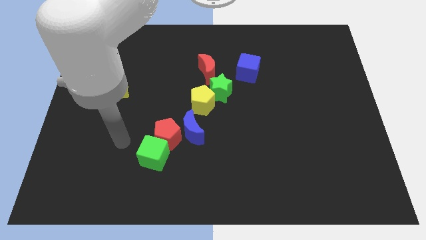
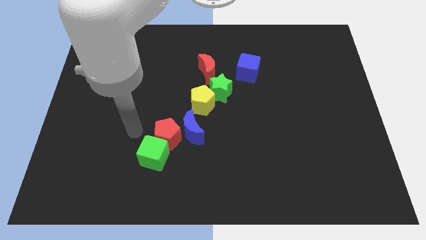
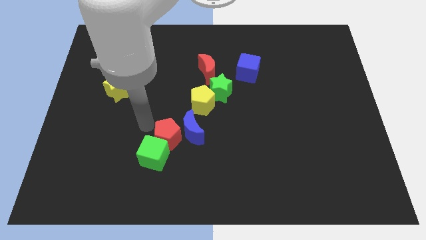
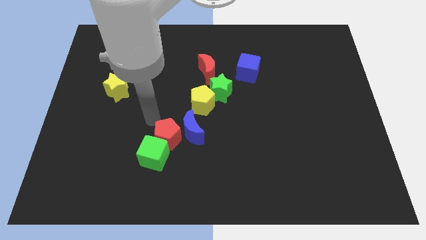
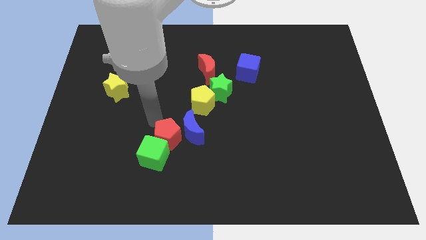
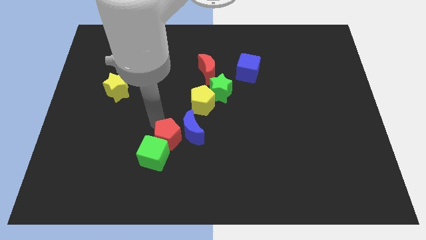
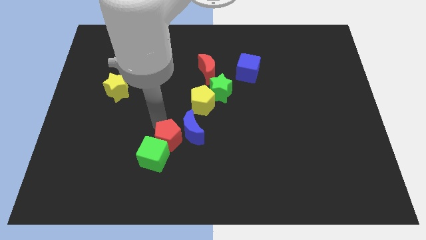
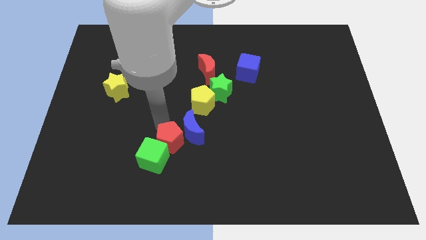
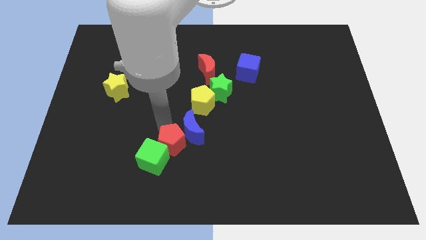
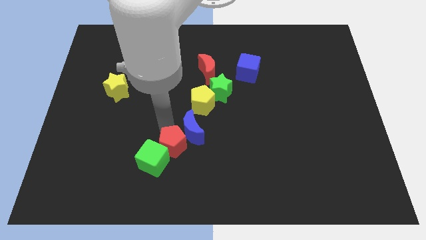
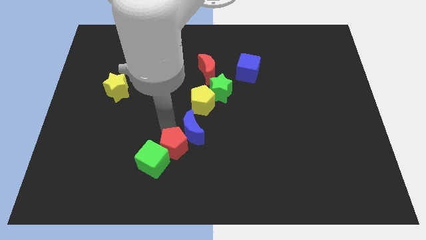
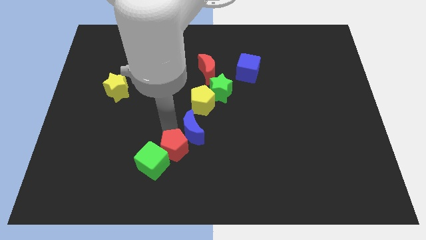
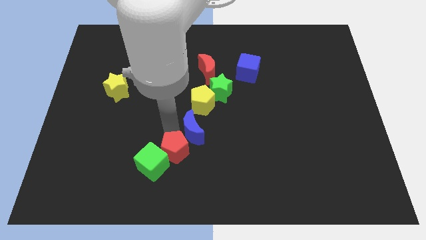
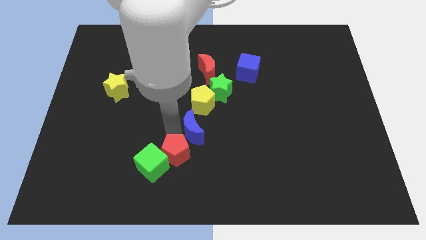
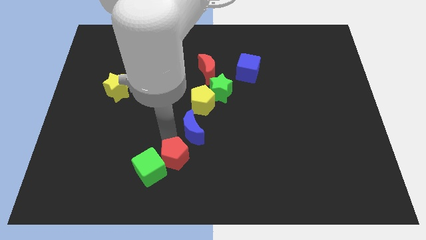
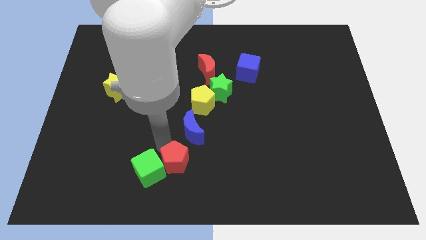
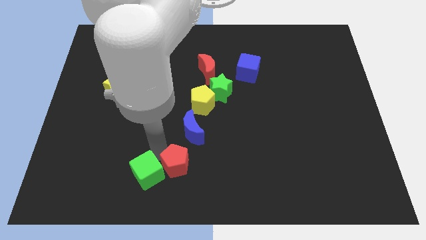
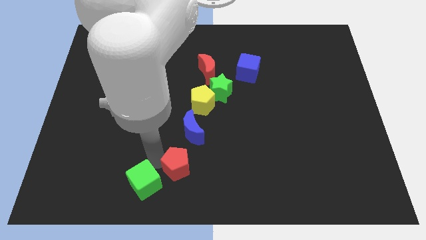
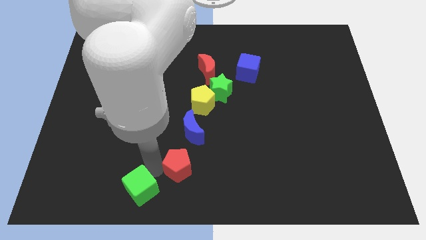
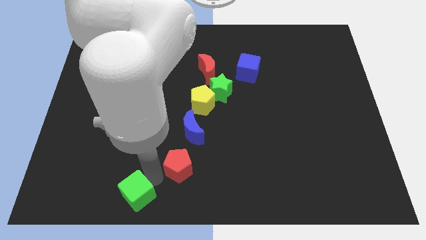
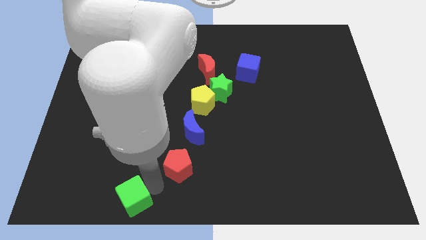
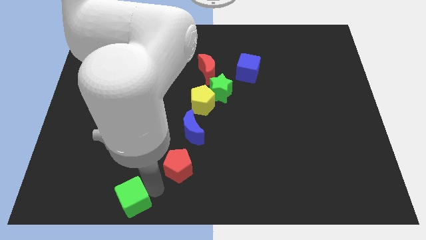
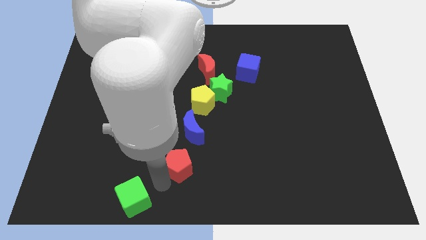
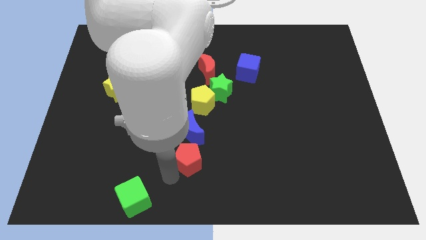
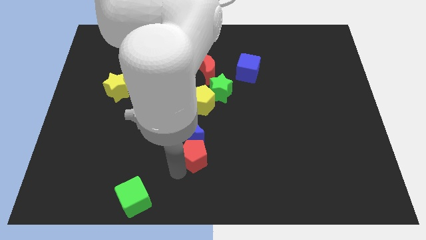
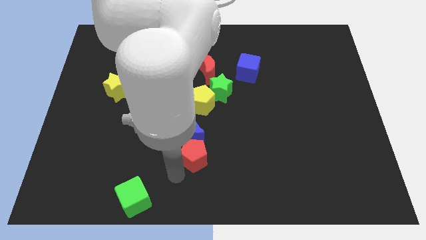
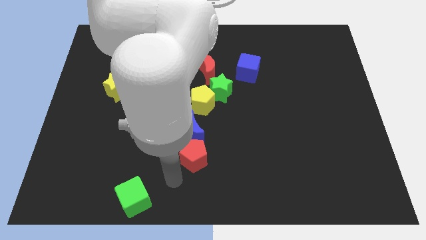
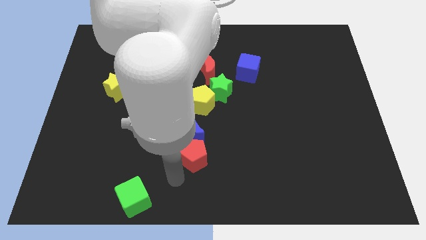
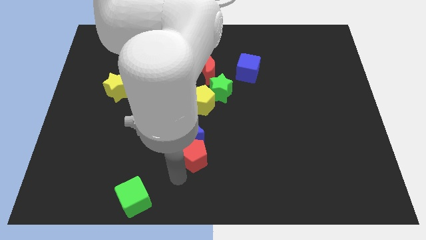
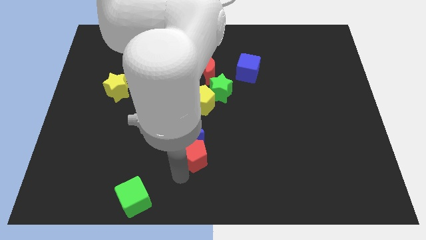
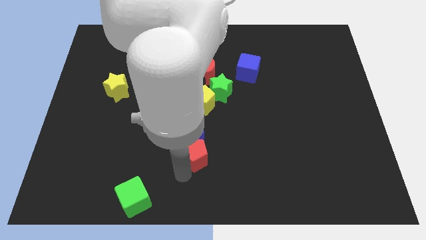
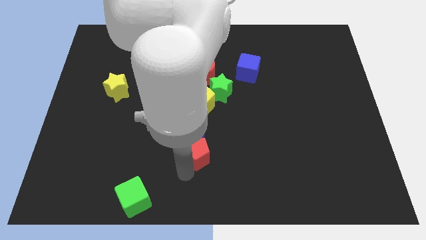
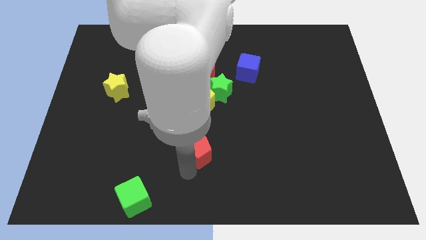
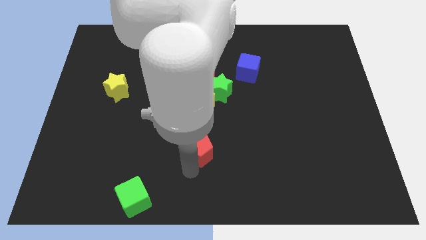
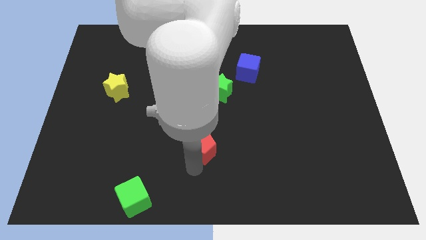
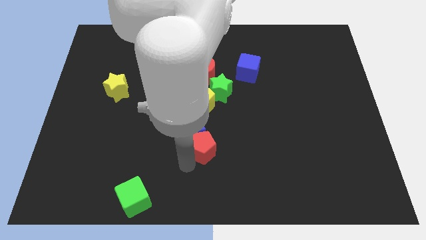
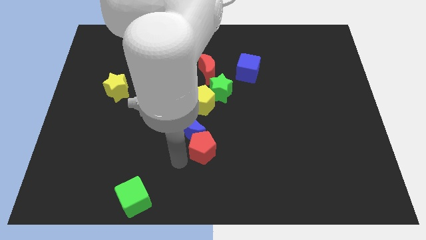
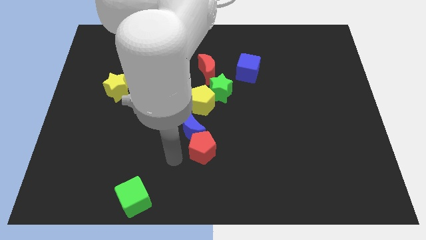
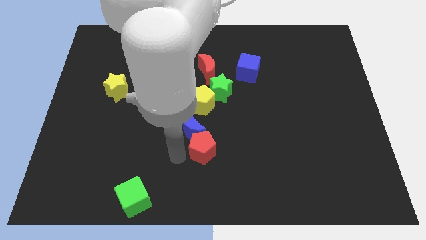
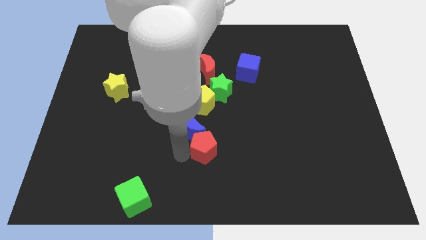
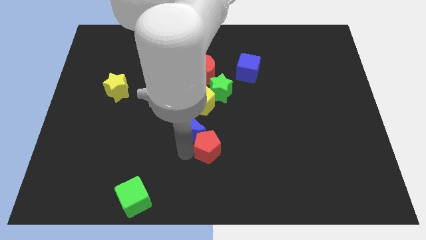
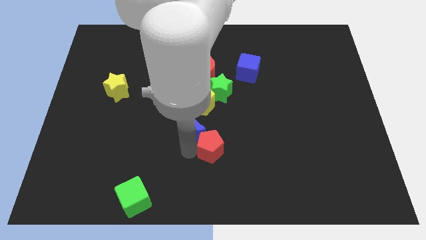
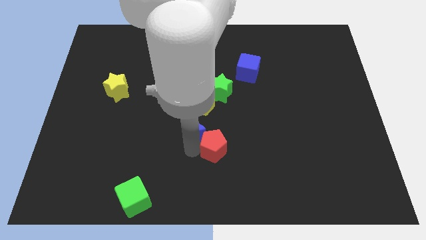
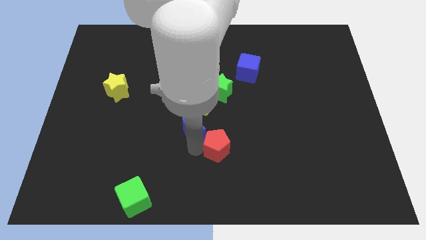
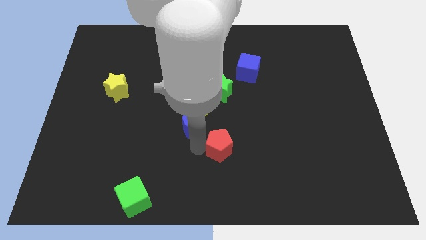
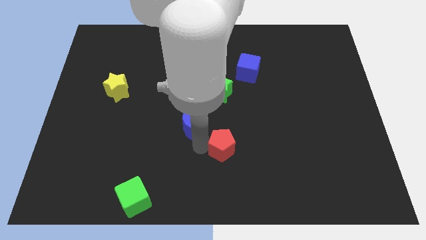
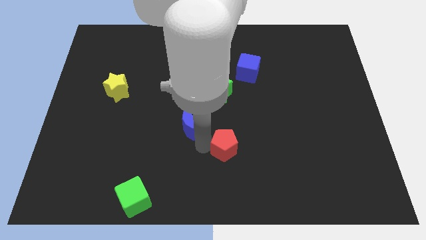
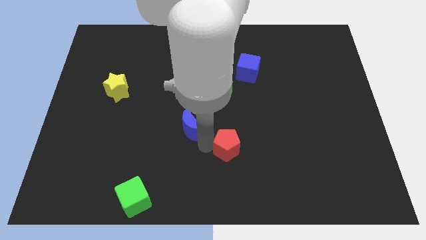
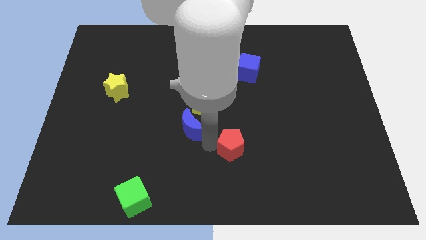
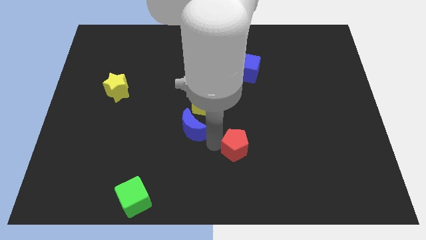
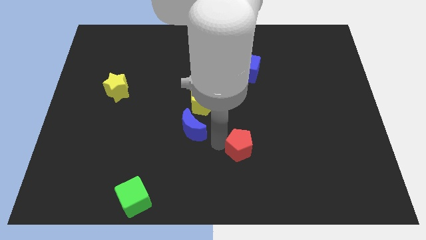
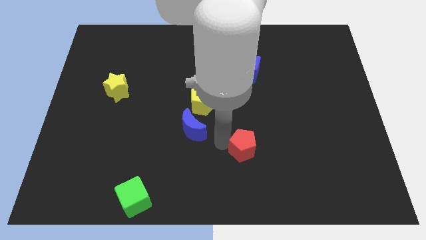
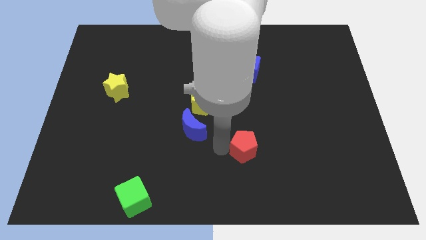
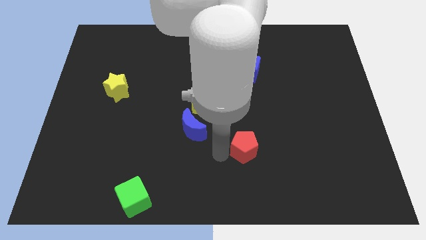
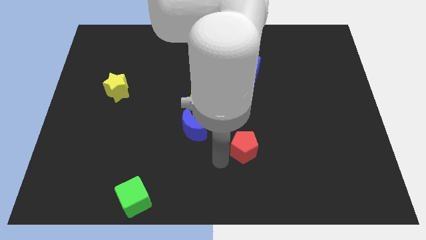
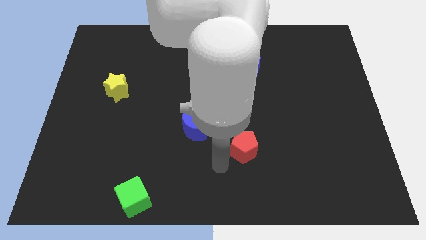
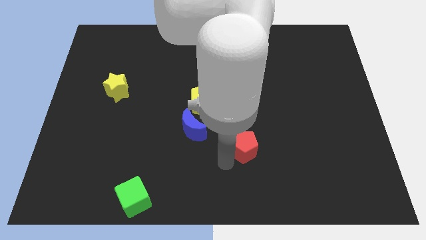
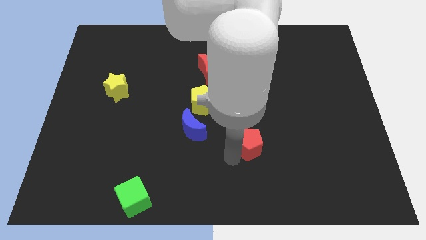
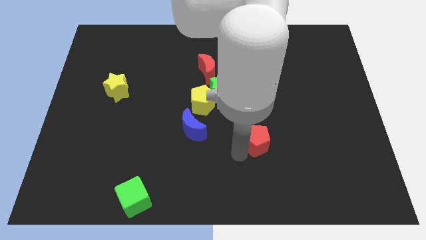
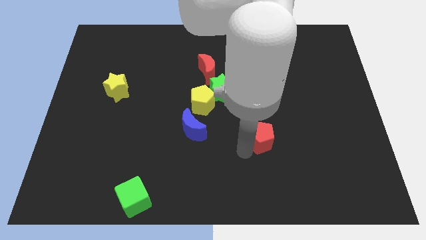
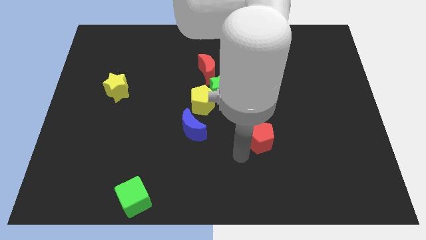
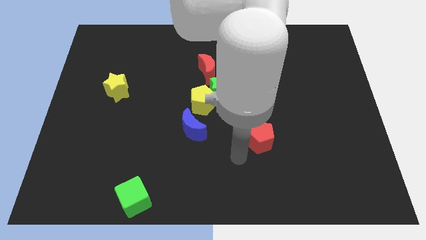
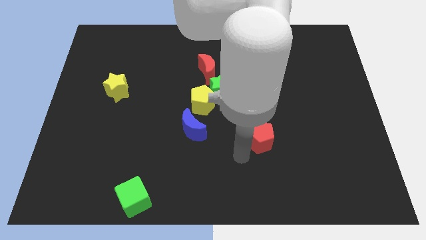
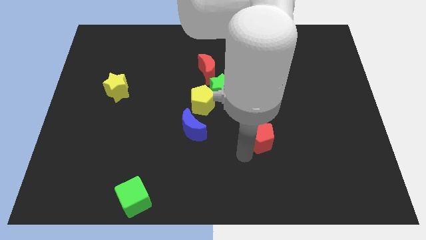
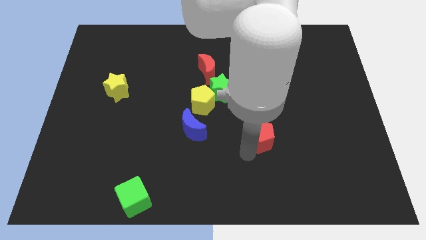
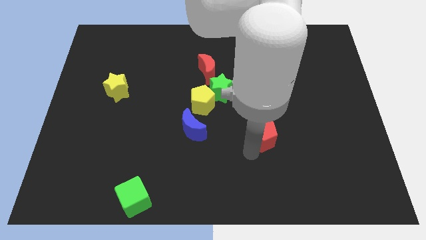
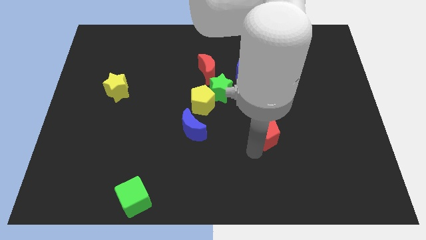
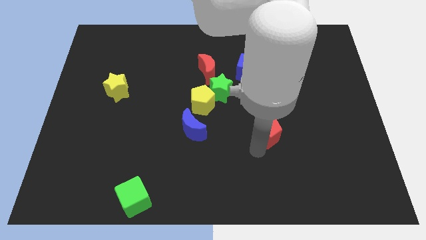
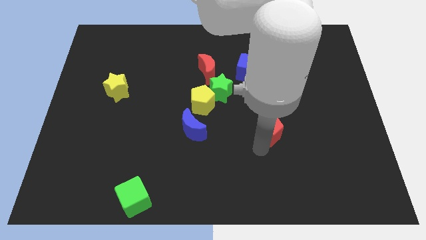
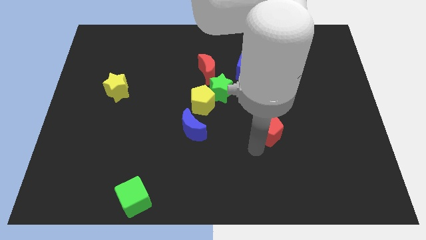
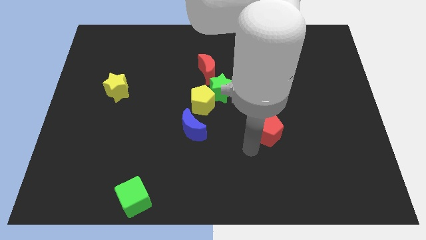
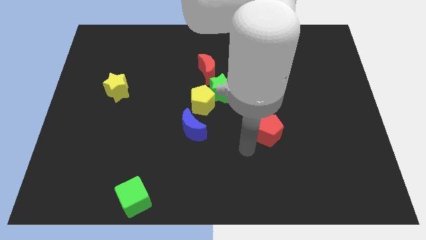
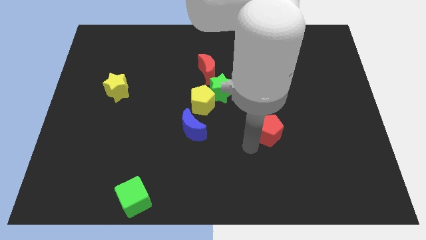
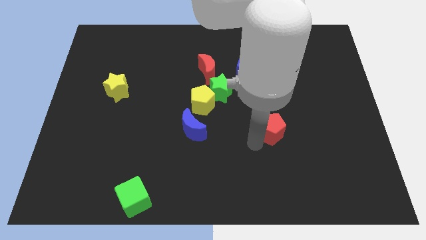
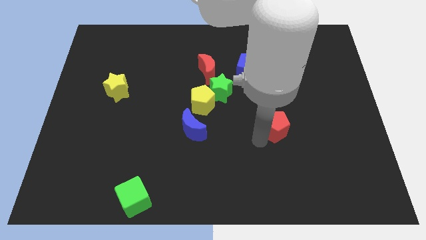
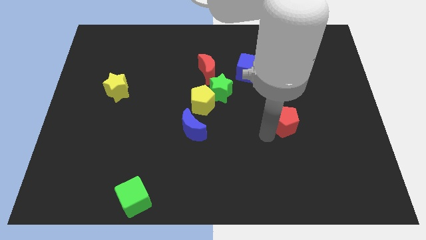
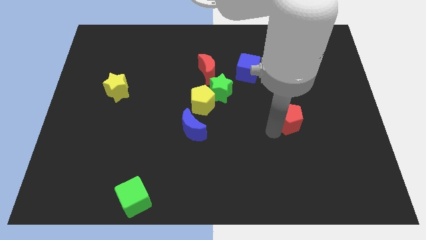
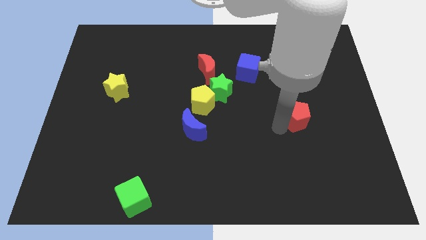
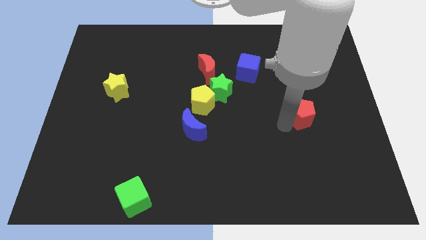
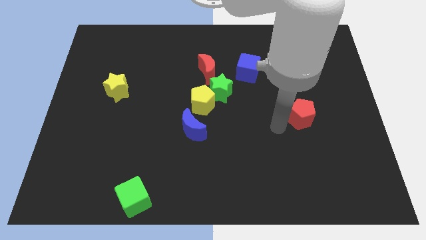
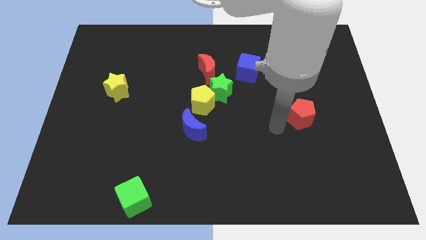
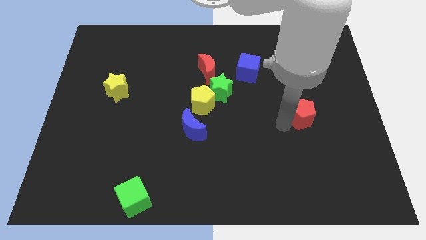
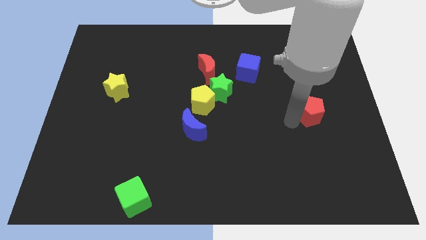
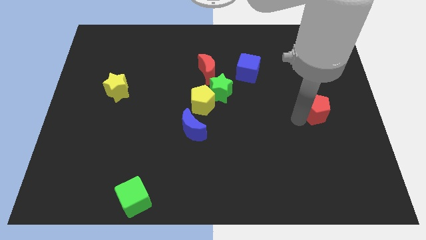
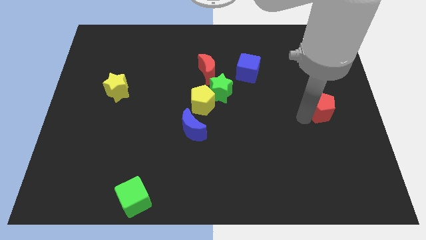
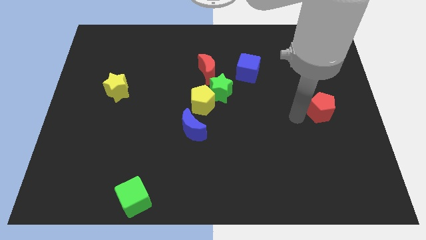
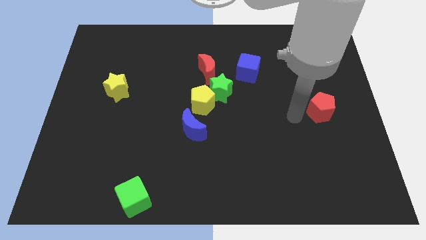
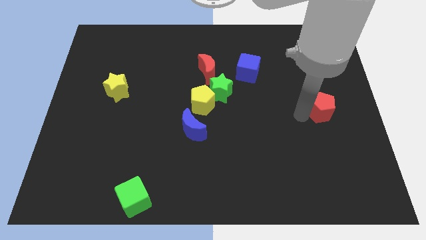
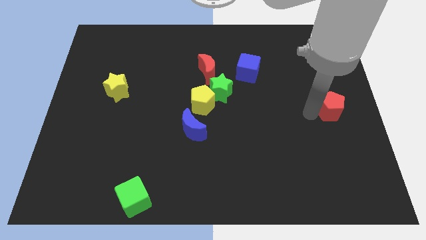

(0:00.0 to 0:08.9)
move the red pentagon to the right side of the board
